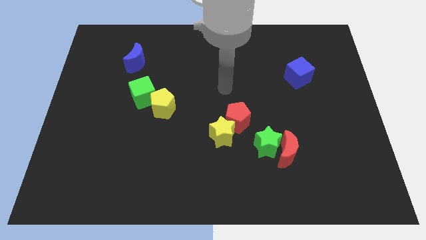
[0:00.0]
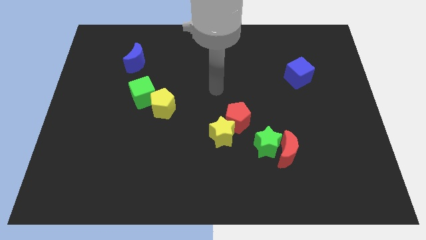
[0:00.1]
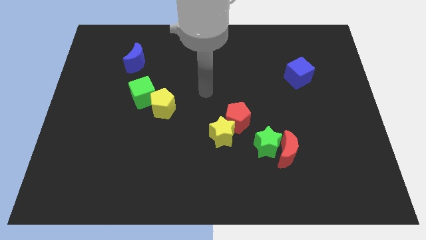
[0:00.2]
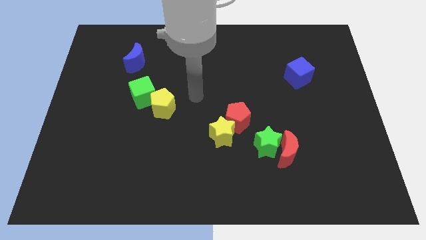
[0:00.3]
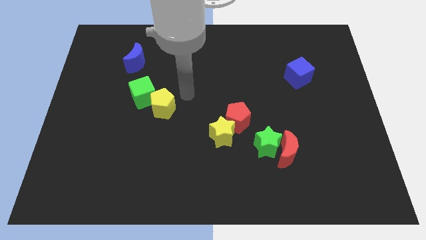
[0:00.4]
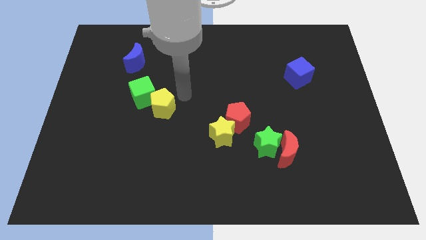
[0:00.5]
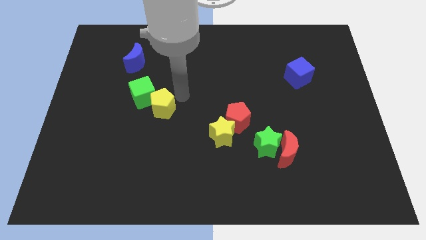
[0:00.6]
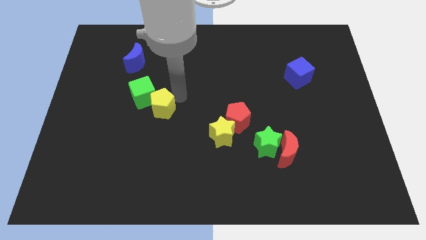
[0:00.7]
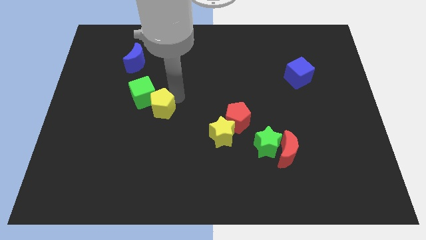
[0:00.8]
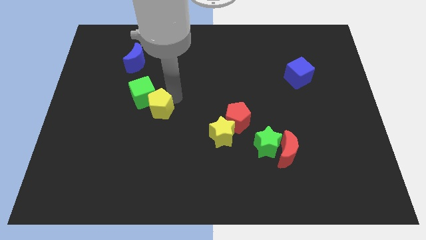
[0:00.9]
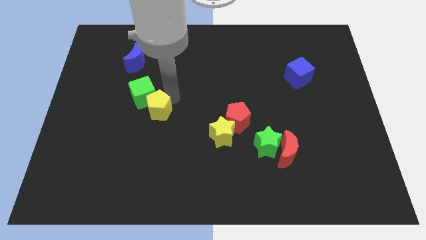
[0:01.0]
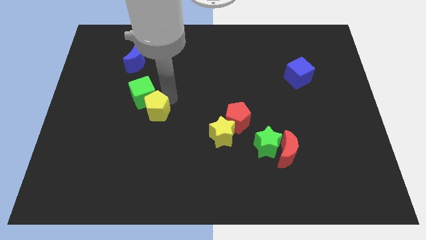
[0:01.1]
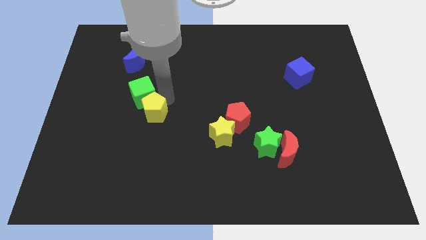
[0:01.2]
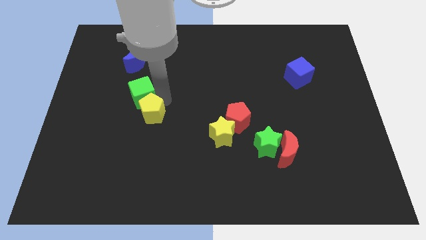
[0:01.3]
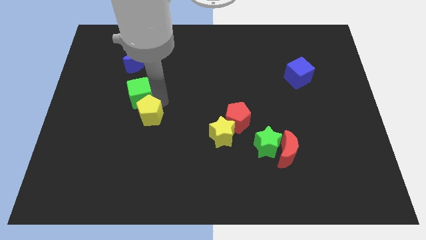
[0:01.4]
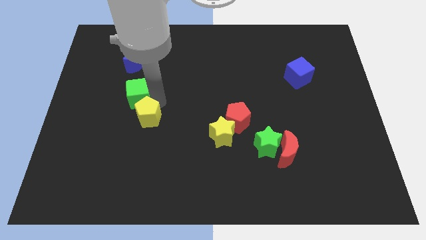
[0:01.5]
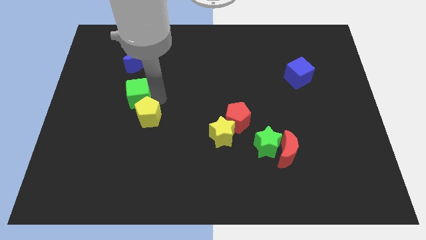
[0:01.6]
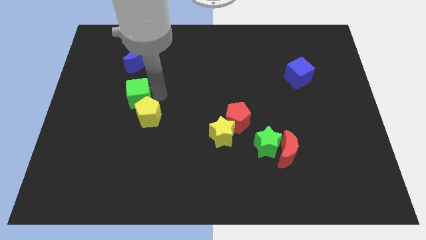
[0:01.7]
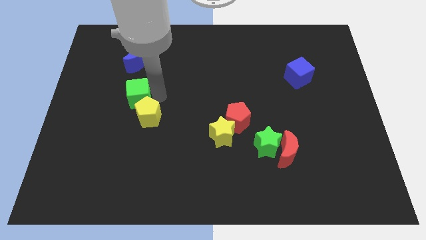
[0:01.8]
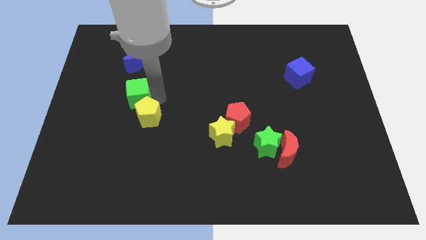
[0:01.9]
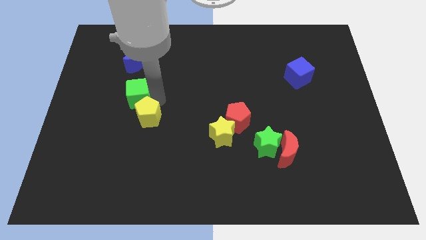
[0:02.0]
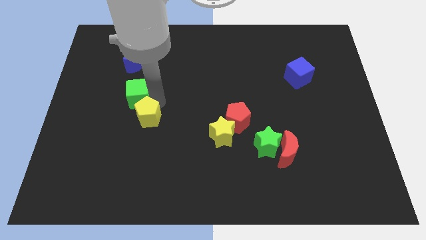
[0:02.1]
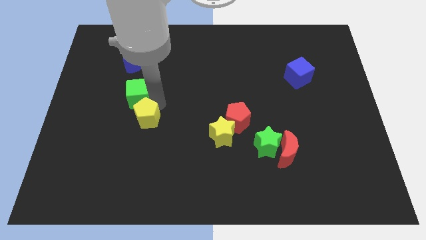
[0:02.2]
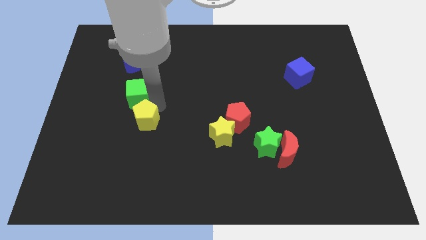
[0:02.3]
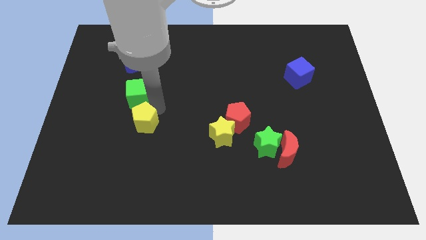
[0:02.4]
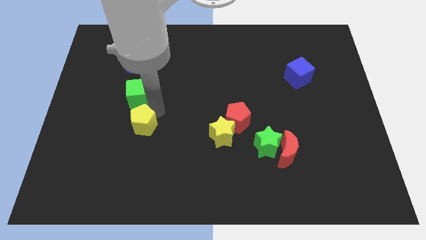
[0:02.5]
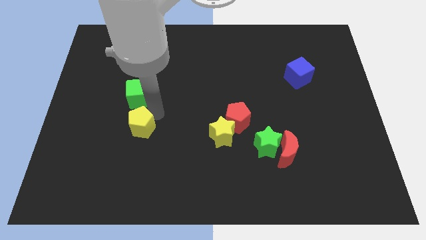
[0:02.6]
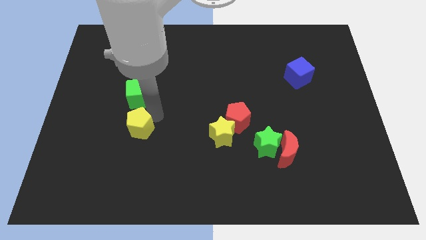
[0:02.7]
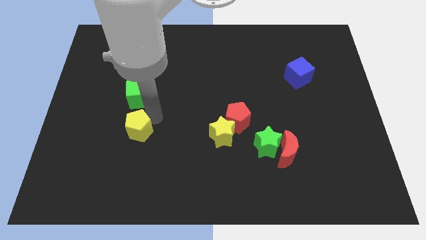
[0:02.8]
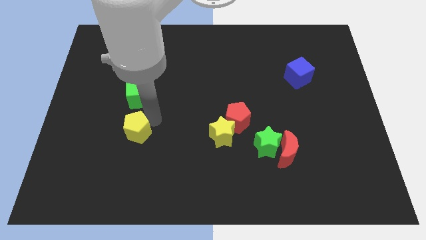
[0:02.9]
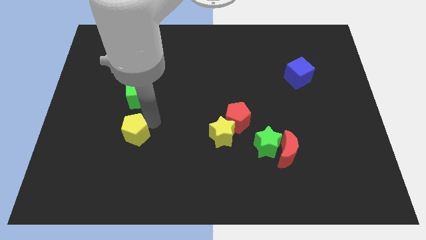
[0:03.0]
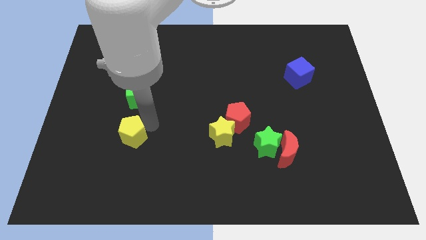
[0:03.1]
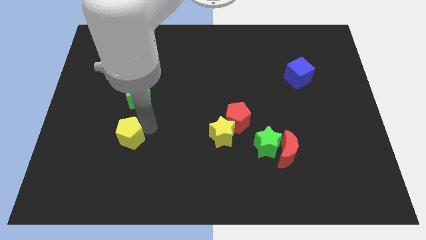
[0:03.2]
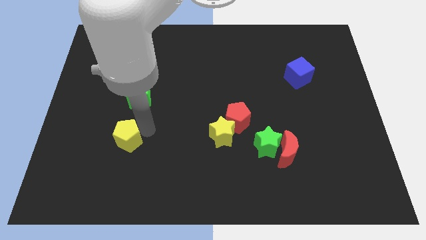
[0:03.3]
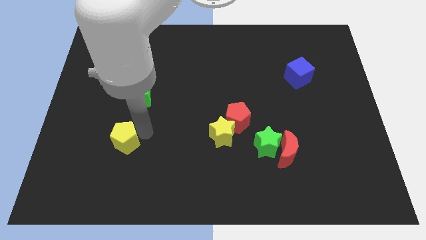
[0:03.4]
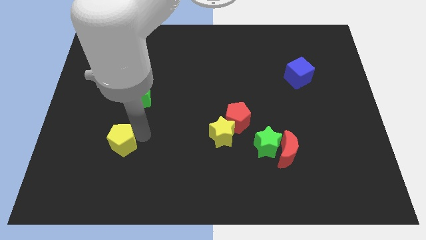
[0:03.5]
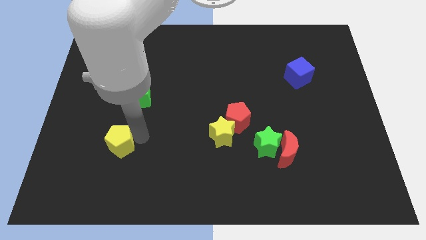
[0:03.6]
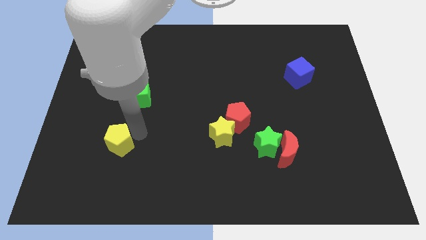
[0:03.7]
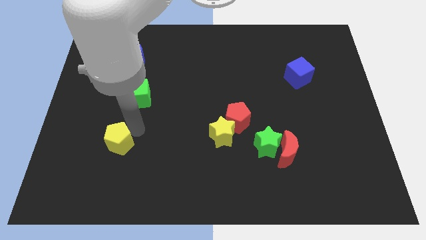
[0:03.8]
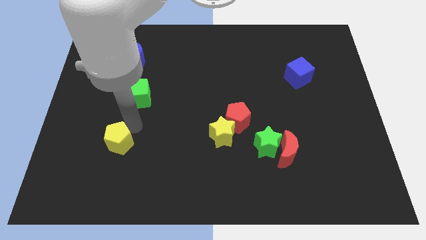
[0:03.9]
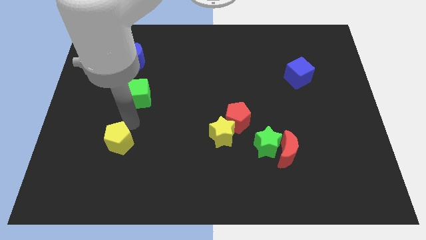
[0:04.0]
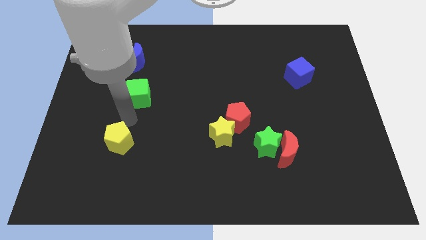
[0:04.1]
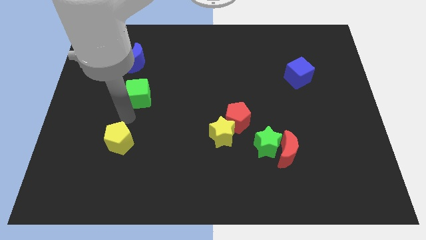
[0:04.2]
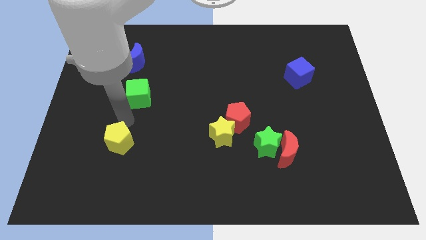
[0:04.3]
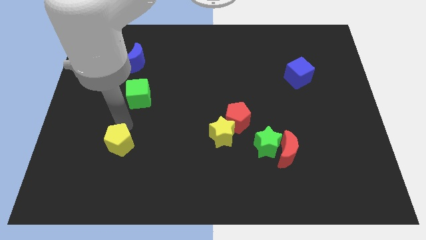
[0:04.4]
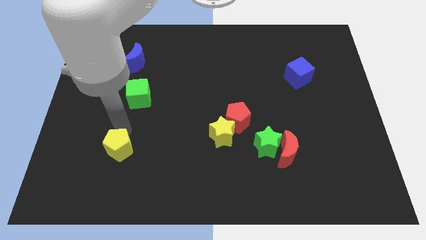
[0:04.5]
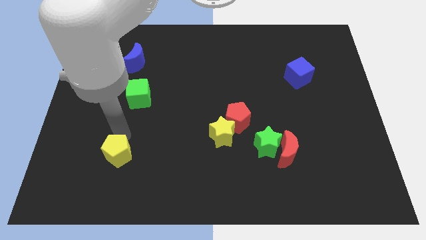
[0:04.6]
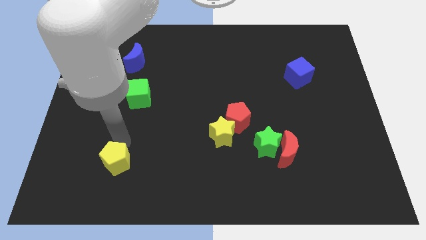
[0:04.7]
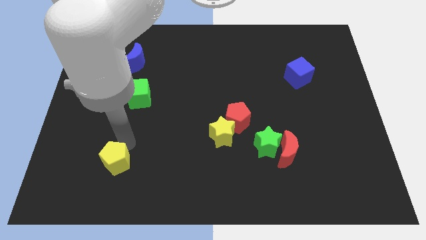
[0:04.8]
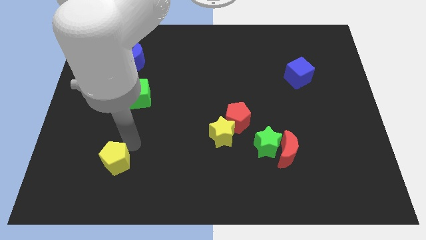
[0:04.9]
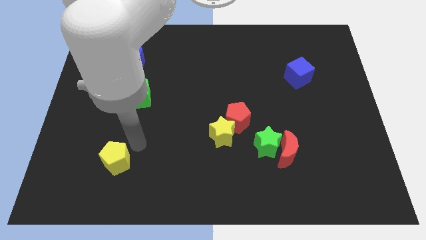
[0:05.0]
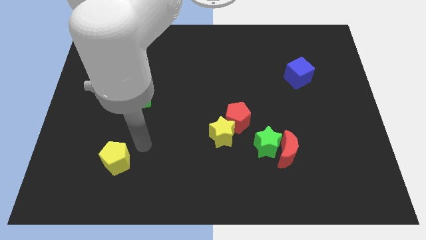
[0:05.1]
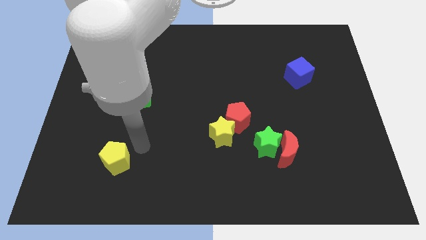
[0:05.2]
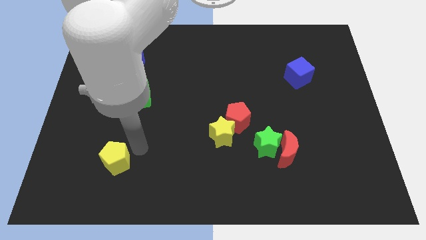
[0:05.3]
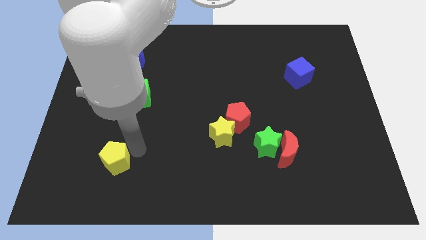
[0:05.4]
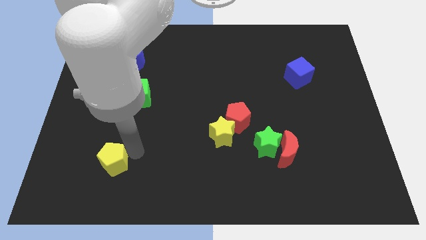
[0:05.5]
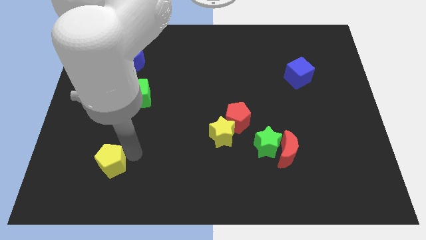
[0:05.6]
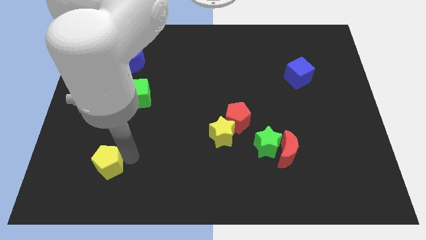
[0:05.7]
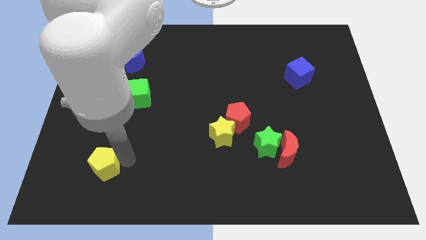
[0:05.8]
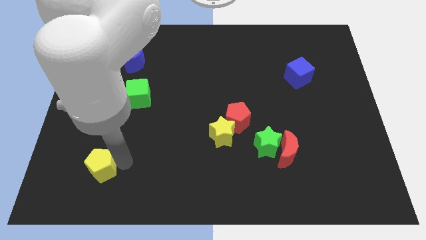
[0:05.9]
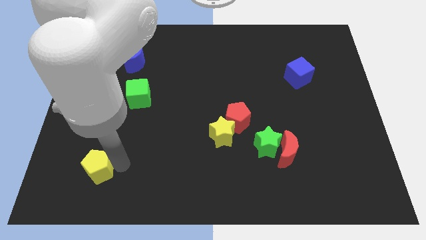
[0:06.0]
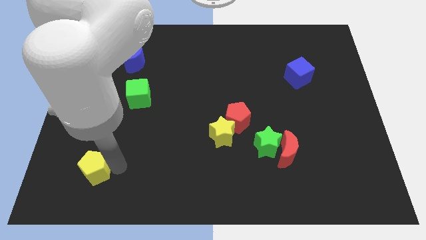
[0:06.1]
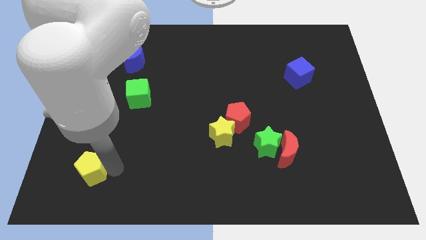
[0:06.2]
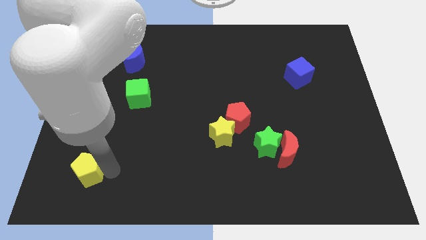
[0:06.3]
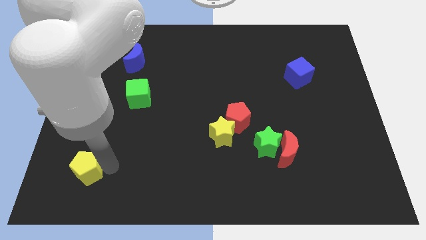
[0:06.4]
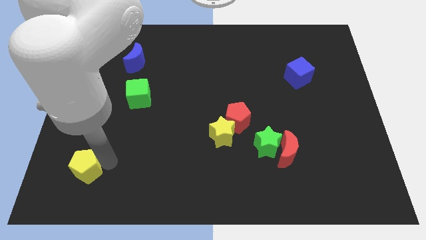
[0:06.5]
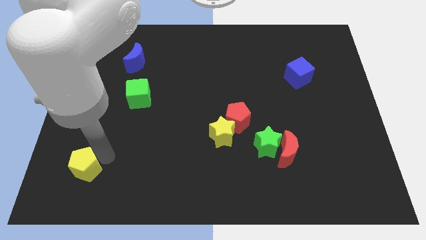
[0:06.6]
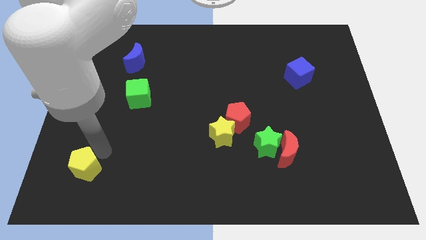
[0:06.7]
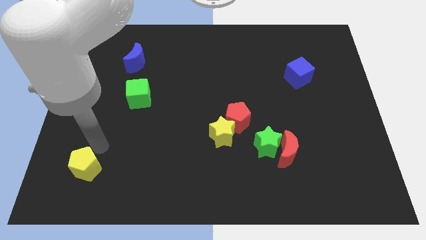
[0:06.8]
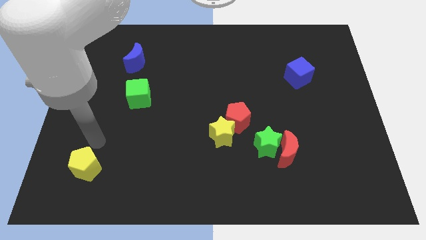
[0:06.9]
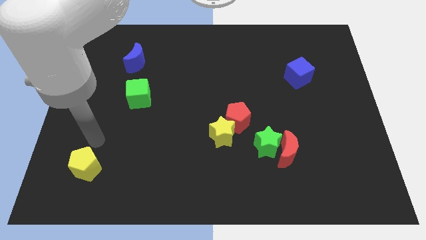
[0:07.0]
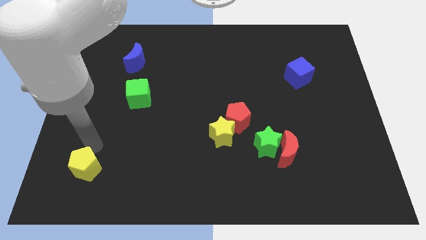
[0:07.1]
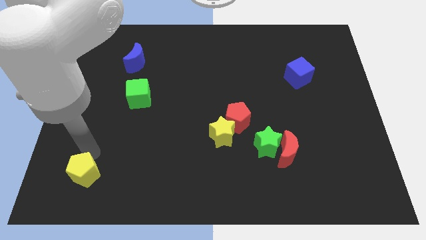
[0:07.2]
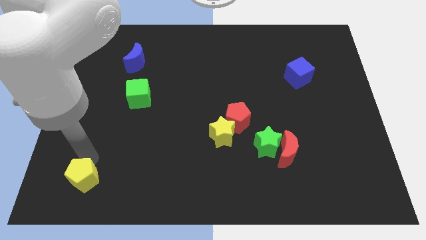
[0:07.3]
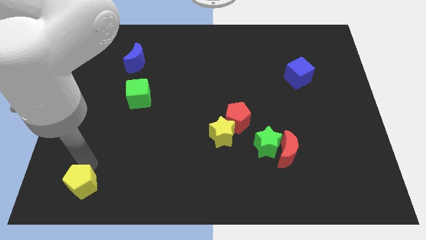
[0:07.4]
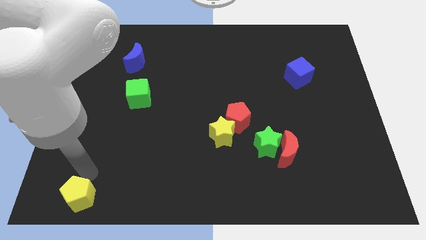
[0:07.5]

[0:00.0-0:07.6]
push the yellow pentagon to the bottom left of the board
